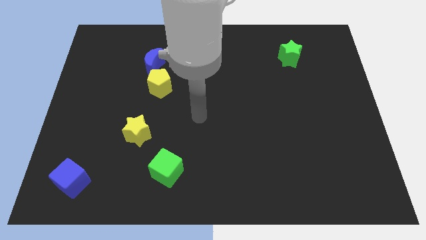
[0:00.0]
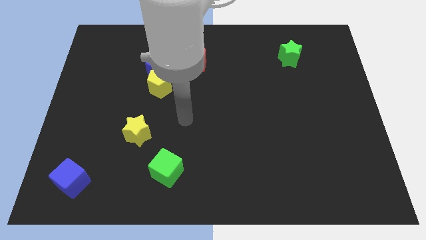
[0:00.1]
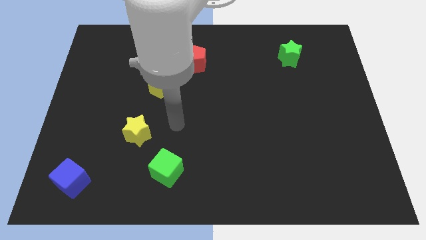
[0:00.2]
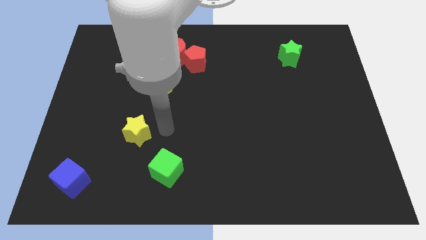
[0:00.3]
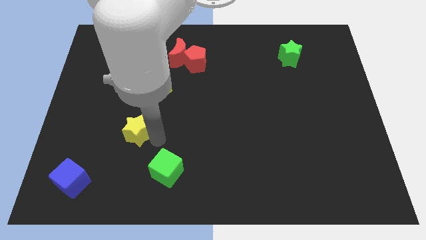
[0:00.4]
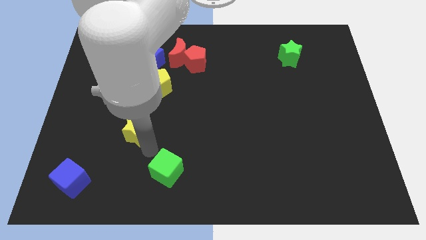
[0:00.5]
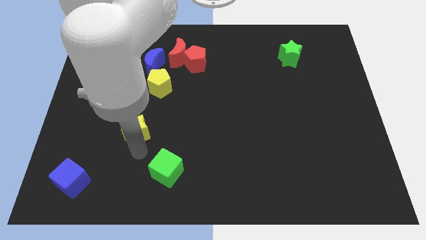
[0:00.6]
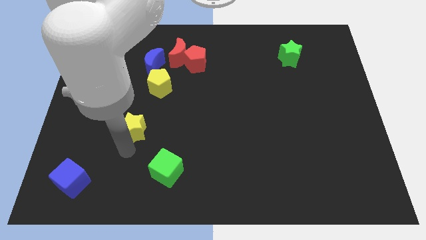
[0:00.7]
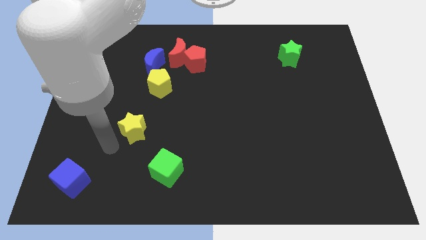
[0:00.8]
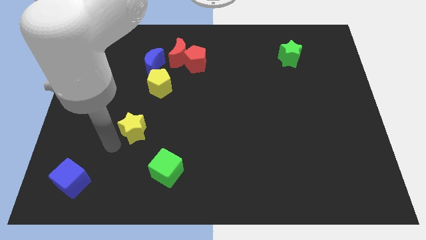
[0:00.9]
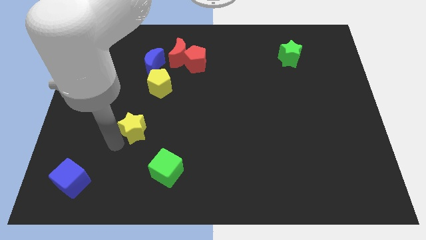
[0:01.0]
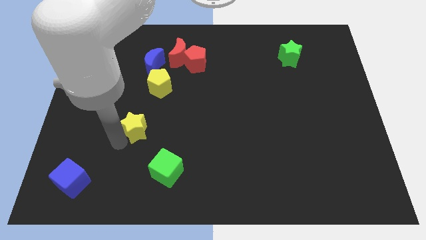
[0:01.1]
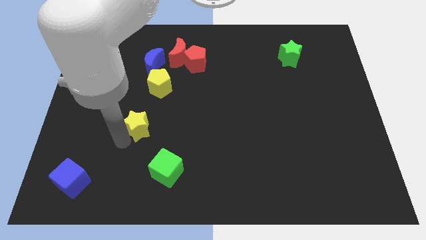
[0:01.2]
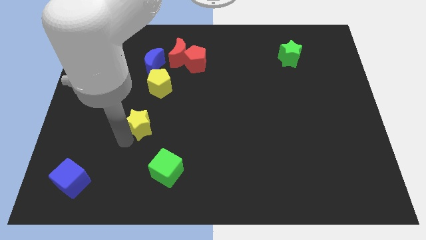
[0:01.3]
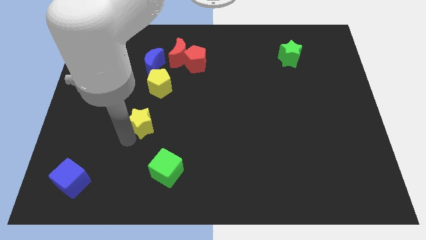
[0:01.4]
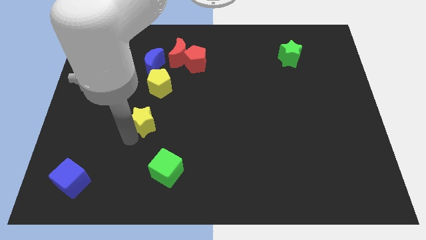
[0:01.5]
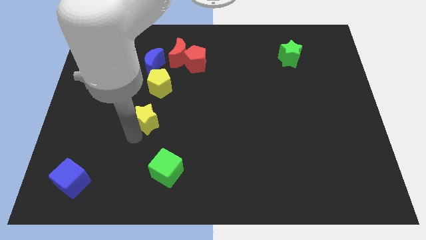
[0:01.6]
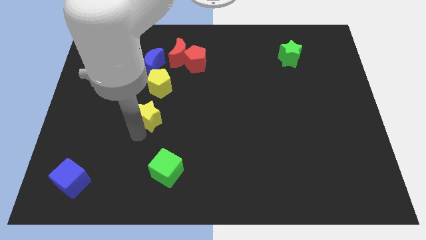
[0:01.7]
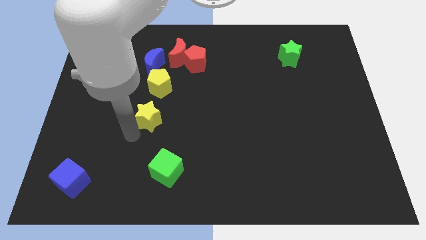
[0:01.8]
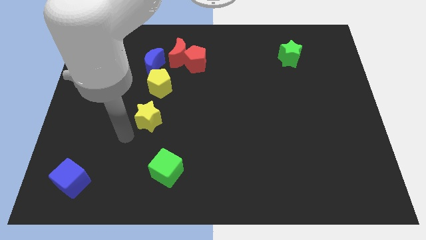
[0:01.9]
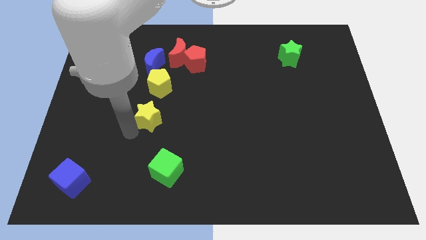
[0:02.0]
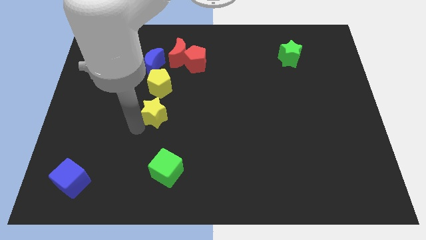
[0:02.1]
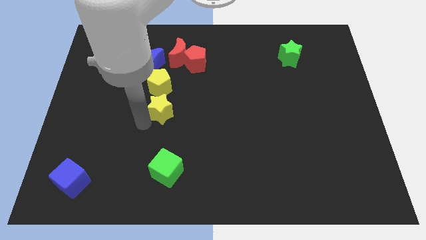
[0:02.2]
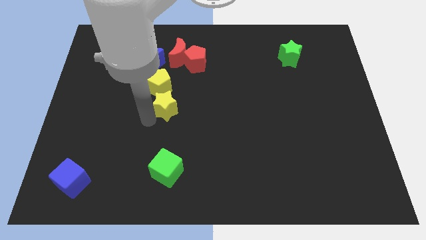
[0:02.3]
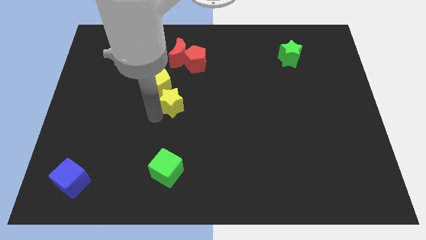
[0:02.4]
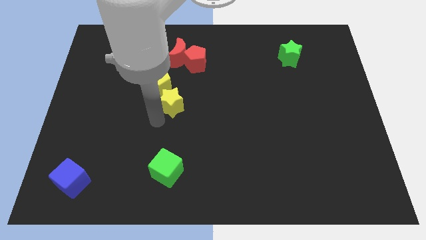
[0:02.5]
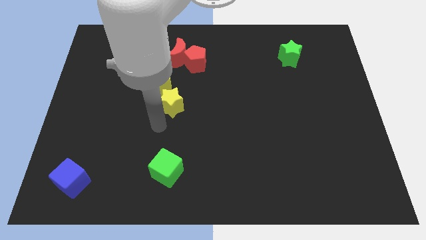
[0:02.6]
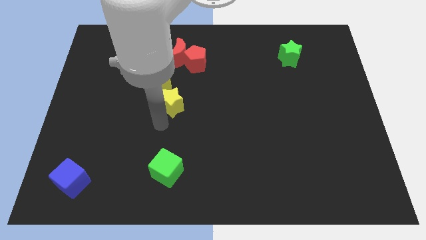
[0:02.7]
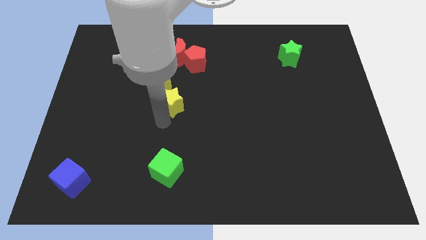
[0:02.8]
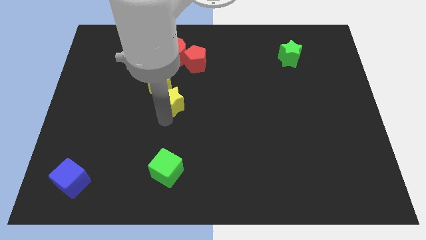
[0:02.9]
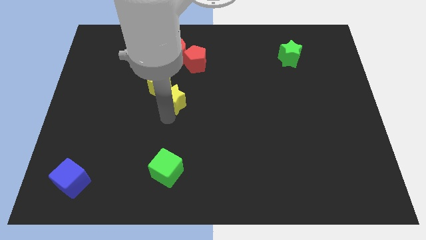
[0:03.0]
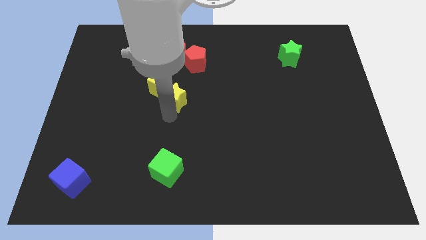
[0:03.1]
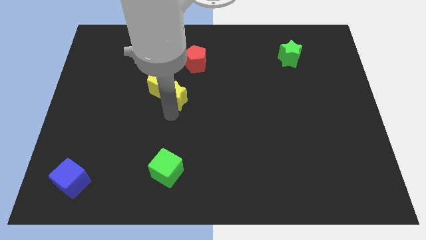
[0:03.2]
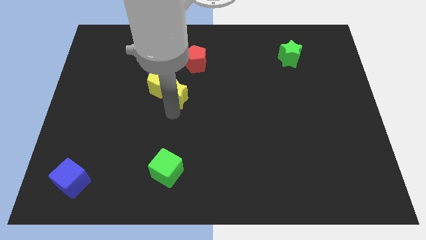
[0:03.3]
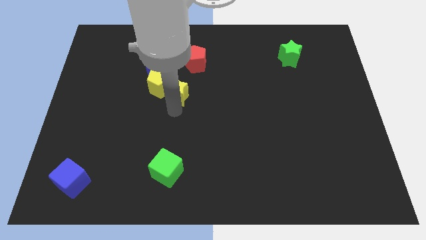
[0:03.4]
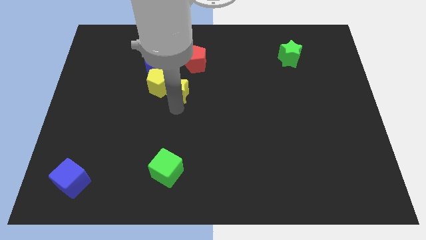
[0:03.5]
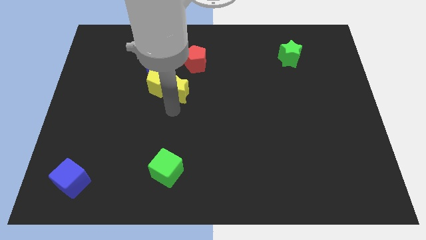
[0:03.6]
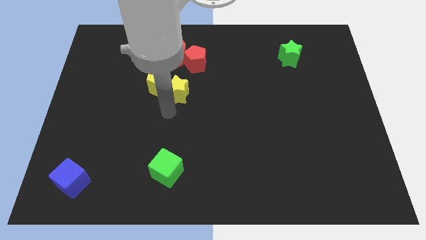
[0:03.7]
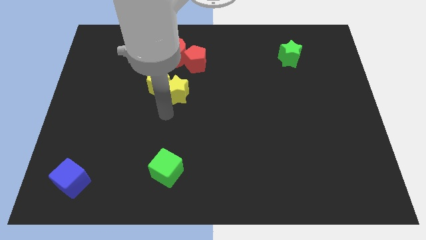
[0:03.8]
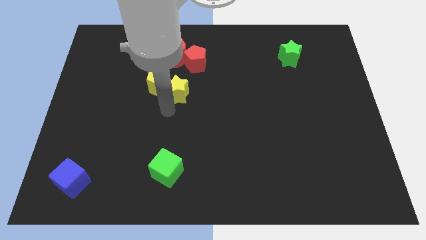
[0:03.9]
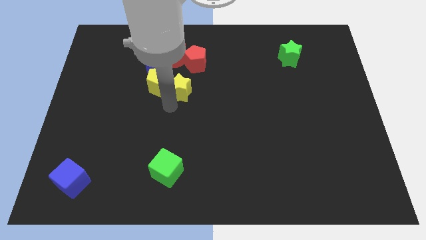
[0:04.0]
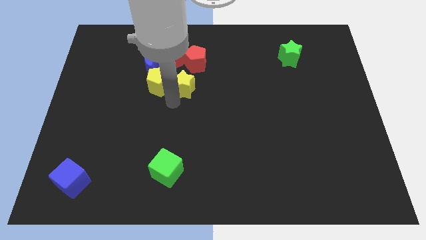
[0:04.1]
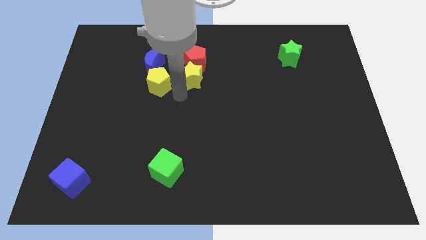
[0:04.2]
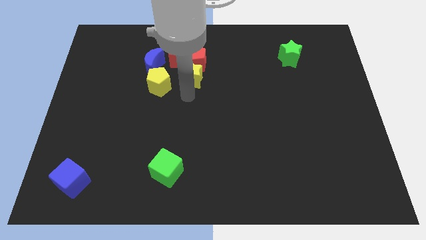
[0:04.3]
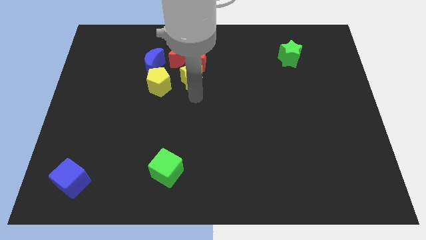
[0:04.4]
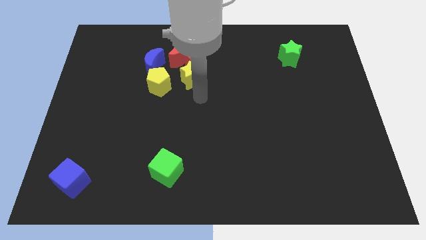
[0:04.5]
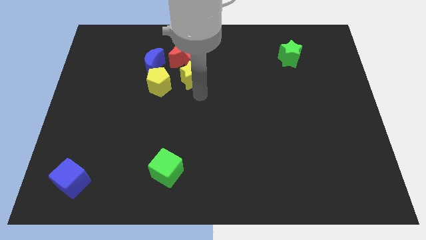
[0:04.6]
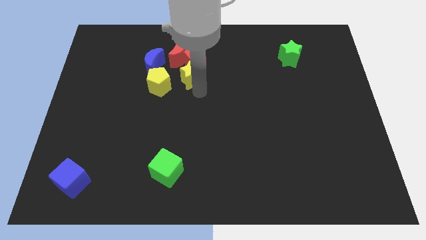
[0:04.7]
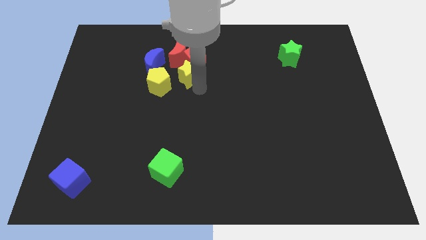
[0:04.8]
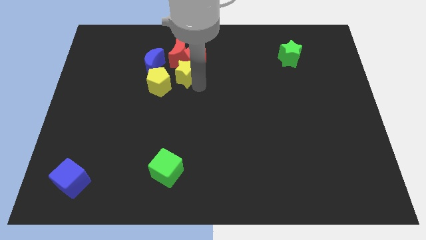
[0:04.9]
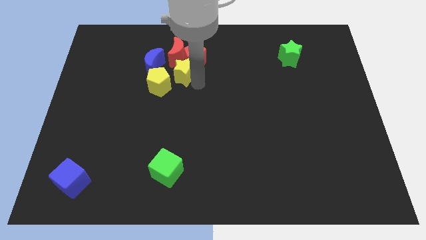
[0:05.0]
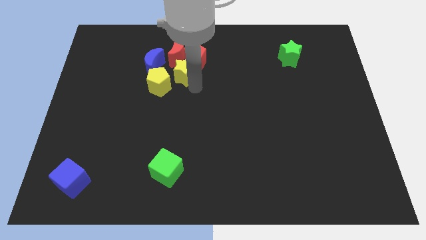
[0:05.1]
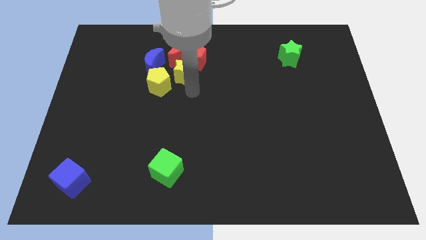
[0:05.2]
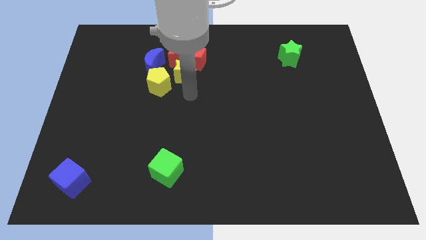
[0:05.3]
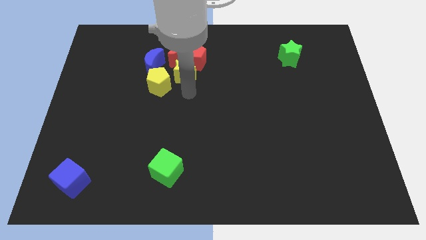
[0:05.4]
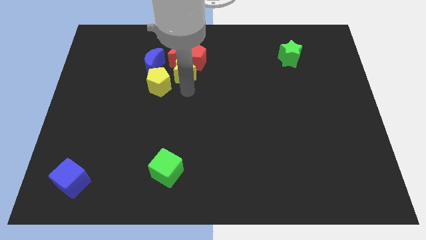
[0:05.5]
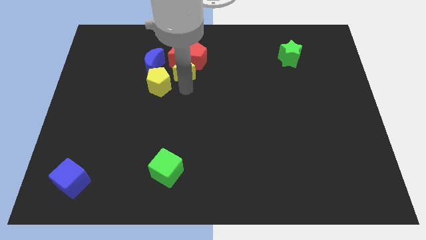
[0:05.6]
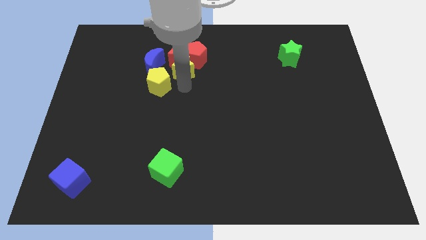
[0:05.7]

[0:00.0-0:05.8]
slide the yellow star close to the red moon

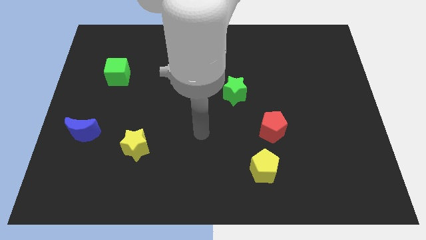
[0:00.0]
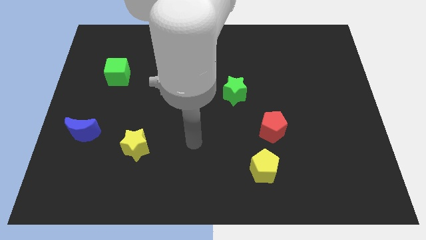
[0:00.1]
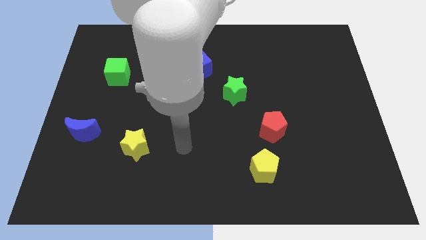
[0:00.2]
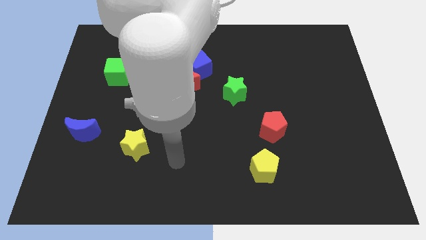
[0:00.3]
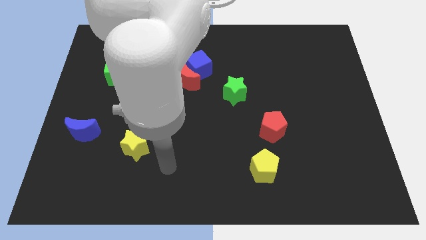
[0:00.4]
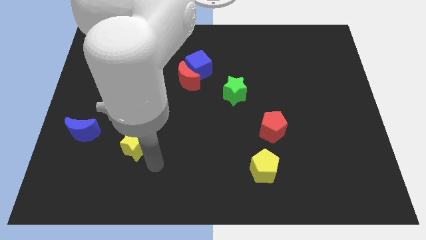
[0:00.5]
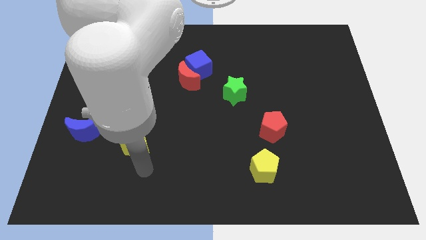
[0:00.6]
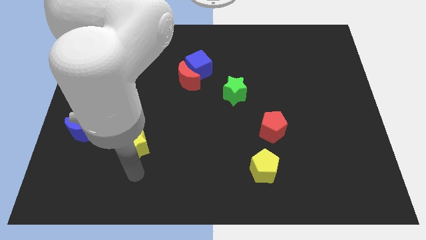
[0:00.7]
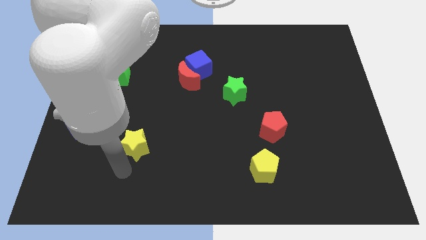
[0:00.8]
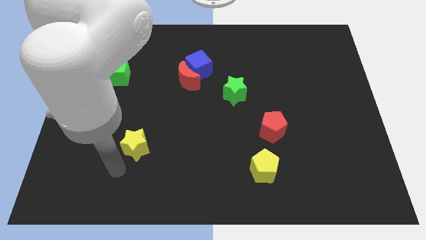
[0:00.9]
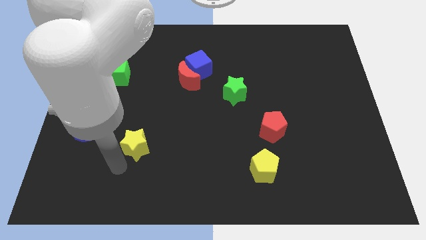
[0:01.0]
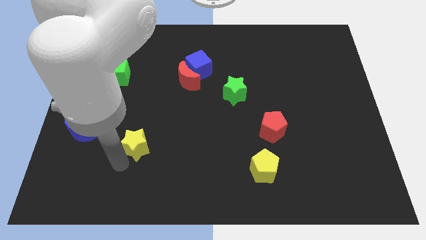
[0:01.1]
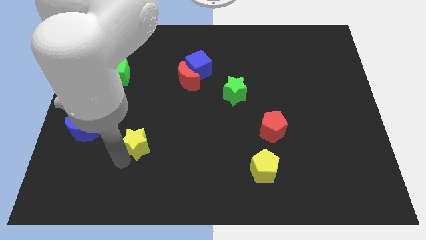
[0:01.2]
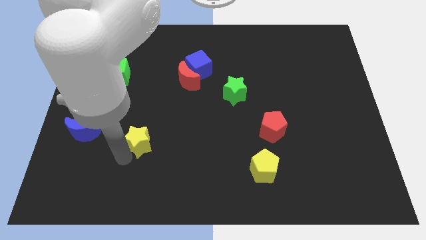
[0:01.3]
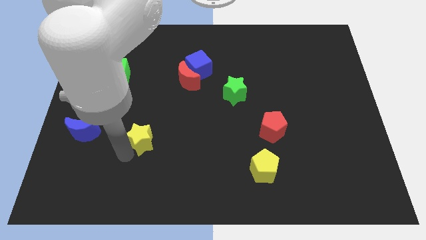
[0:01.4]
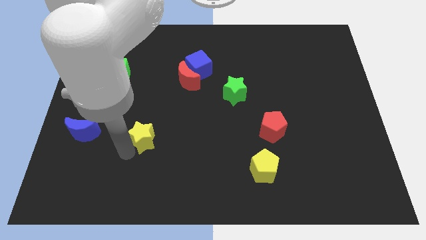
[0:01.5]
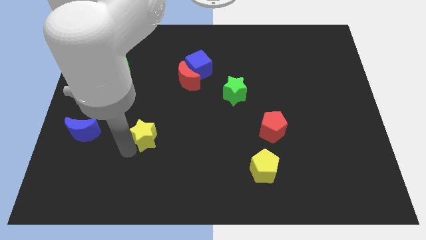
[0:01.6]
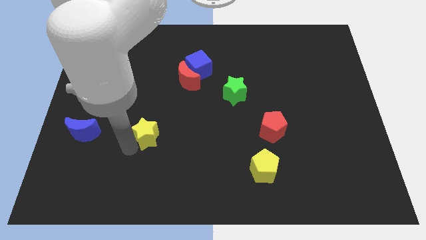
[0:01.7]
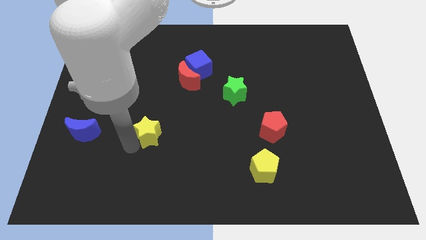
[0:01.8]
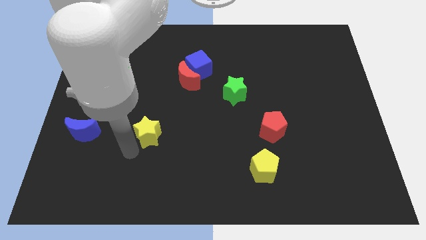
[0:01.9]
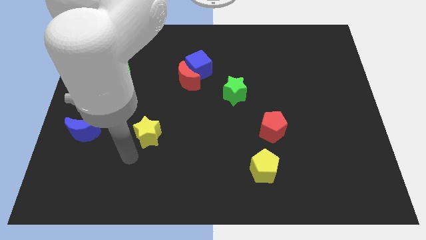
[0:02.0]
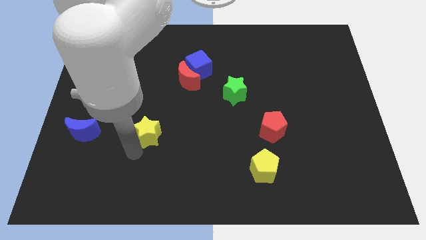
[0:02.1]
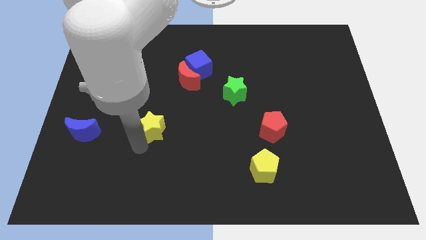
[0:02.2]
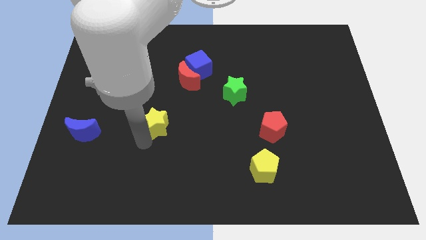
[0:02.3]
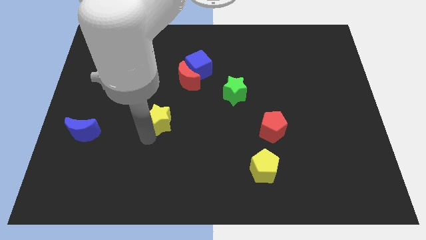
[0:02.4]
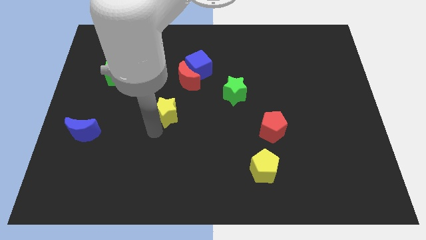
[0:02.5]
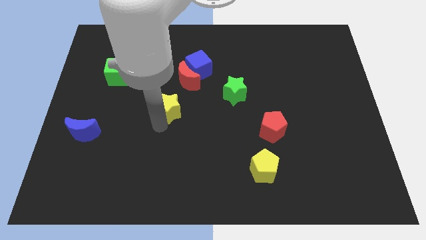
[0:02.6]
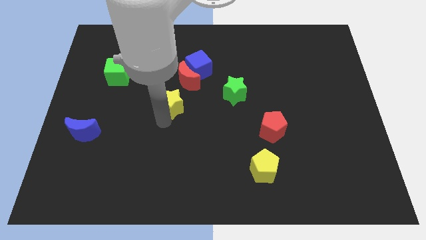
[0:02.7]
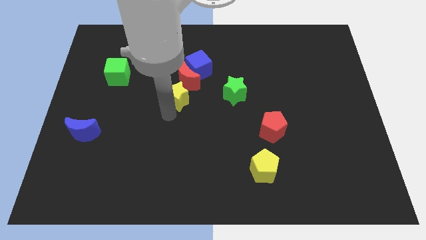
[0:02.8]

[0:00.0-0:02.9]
slide the yellow star towards the red moon
